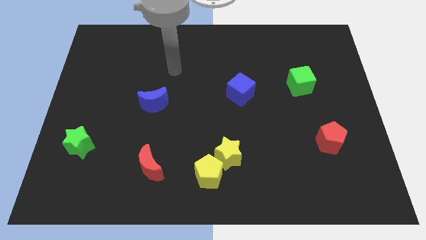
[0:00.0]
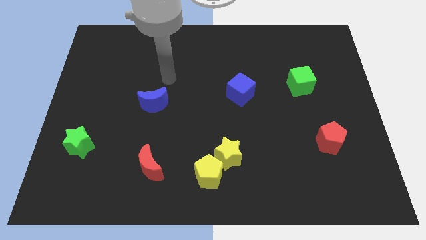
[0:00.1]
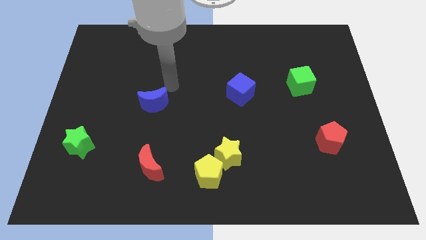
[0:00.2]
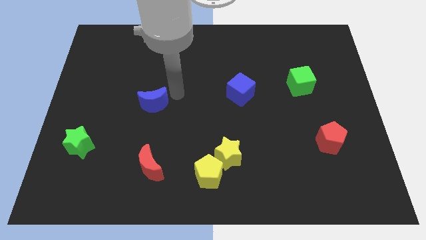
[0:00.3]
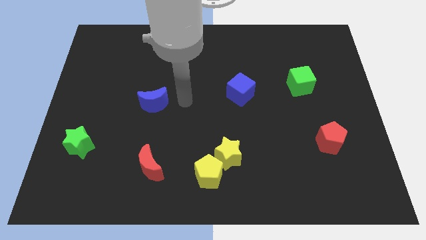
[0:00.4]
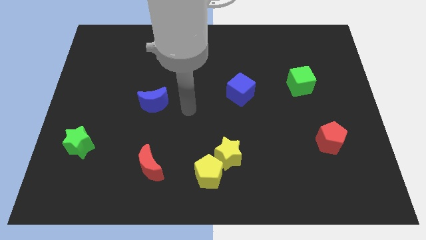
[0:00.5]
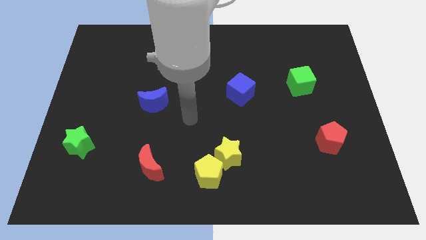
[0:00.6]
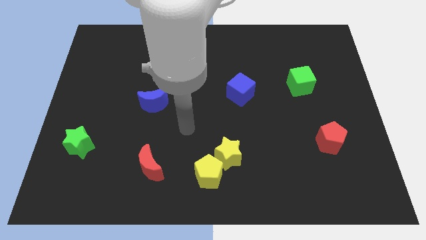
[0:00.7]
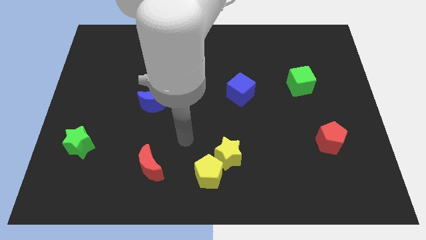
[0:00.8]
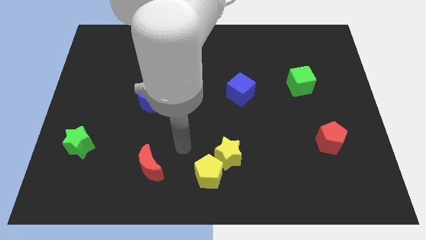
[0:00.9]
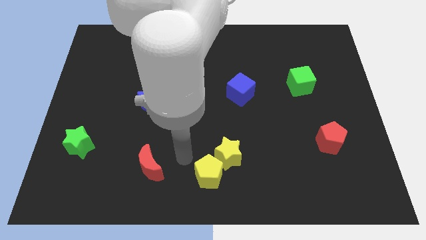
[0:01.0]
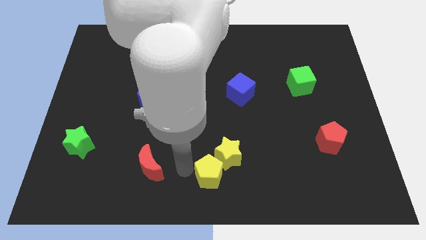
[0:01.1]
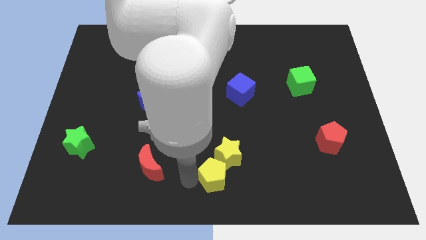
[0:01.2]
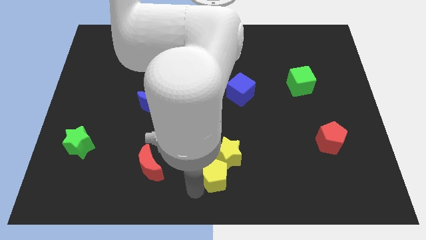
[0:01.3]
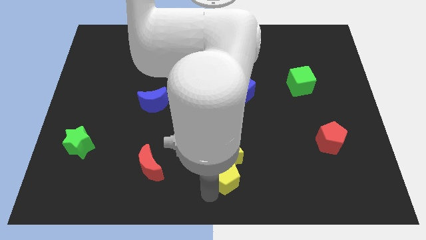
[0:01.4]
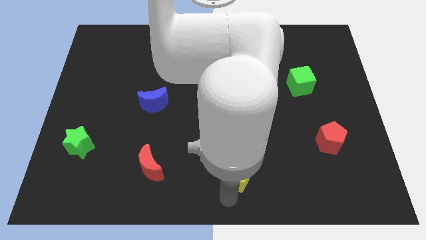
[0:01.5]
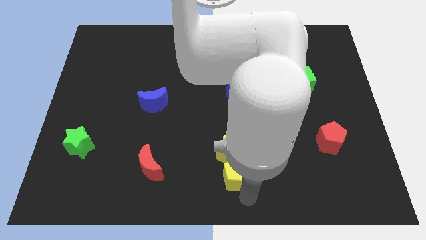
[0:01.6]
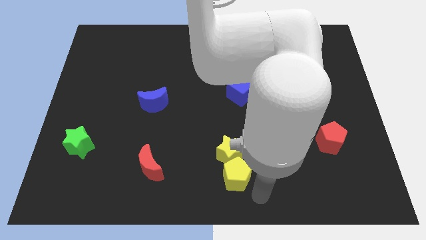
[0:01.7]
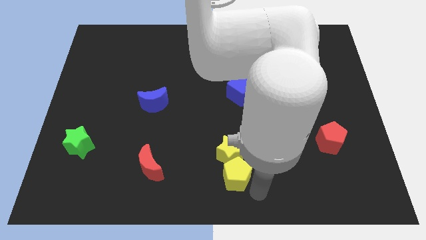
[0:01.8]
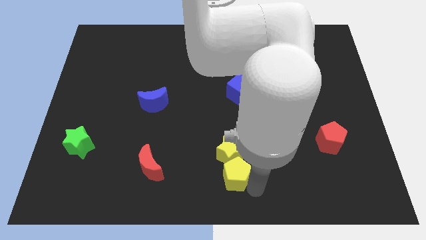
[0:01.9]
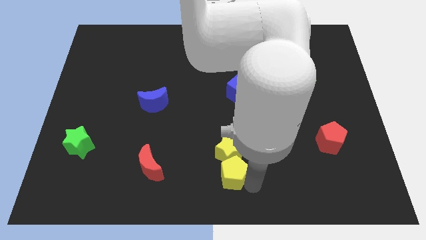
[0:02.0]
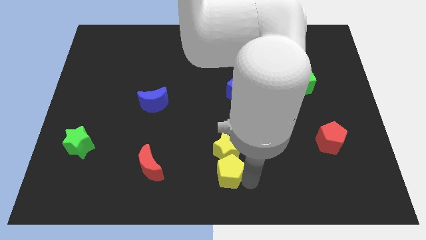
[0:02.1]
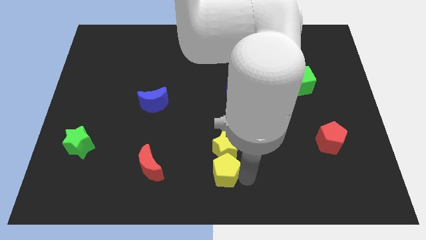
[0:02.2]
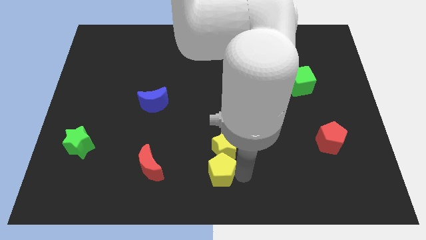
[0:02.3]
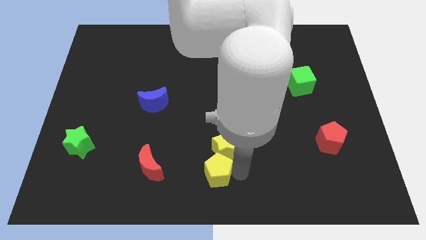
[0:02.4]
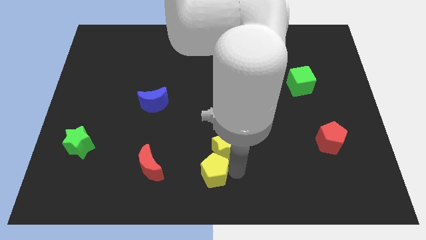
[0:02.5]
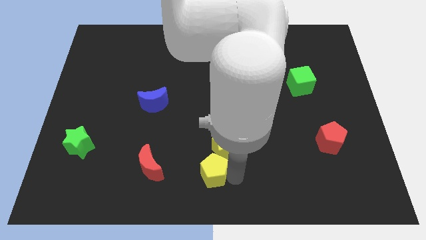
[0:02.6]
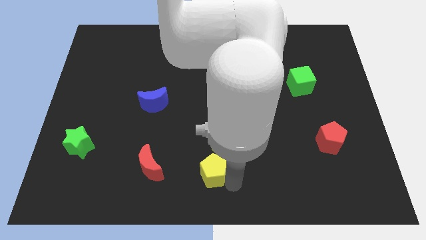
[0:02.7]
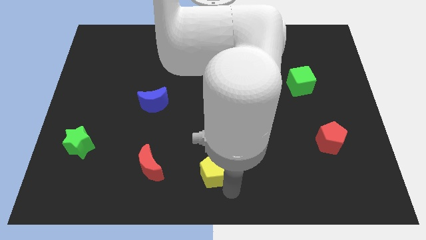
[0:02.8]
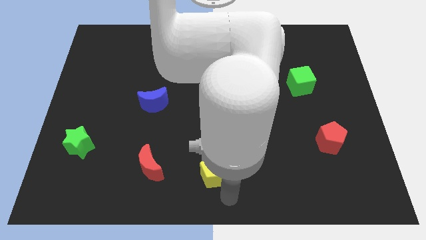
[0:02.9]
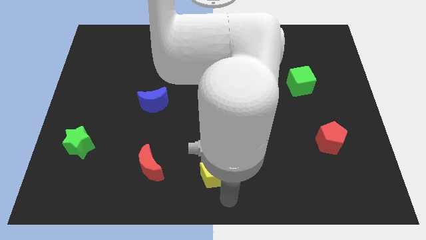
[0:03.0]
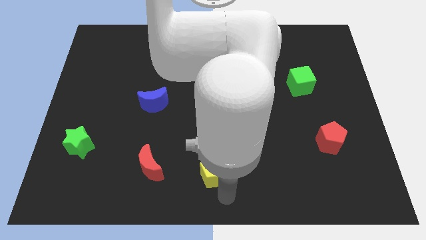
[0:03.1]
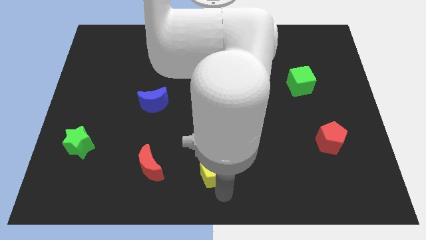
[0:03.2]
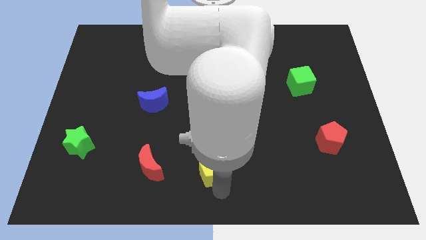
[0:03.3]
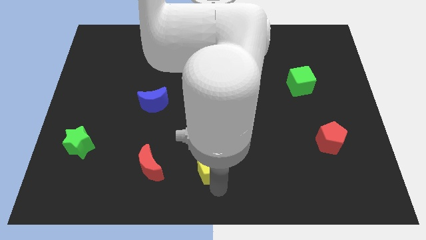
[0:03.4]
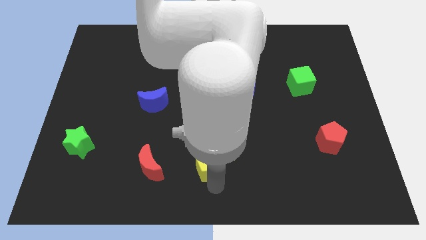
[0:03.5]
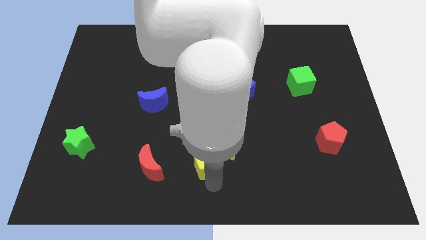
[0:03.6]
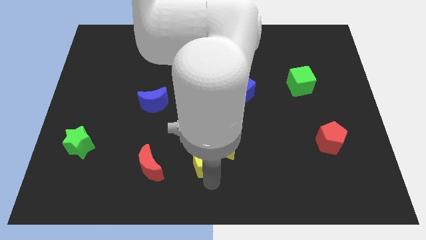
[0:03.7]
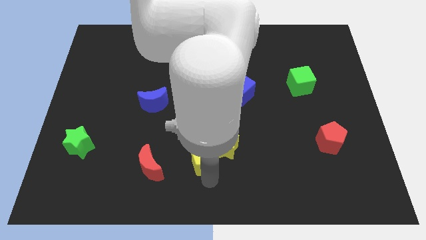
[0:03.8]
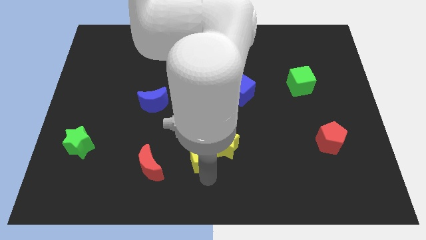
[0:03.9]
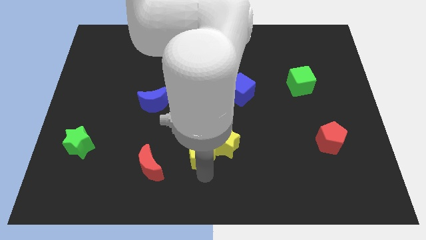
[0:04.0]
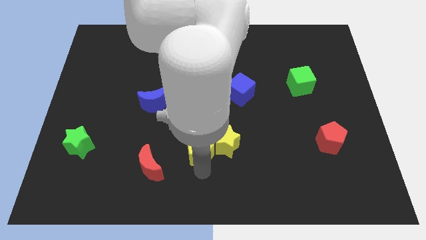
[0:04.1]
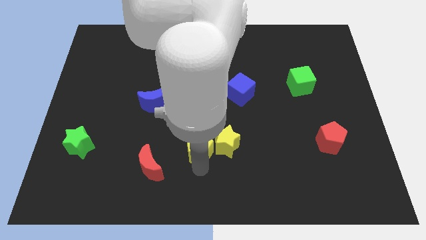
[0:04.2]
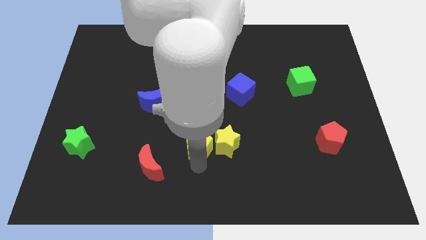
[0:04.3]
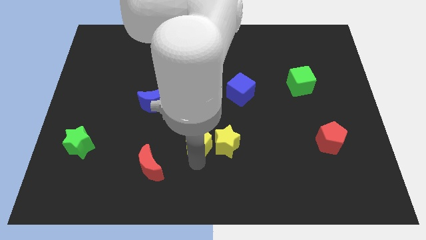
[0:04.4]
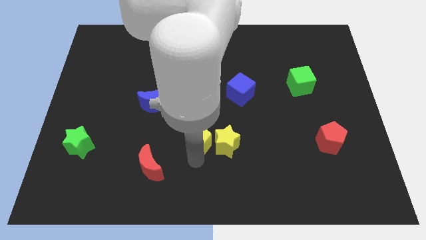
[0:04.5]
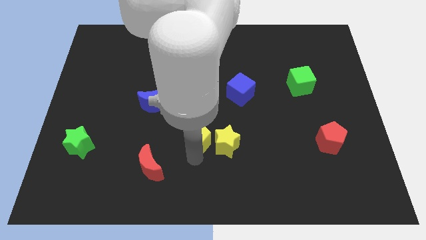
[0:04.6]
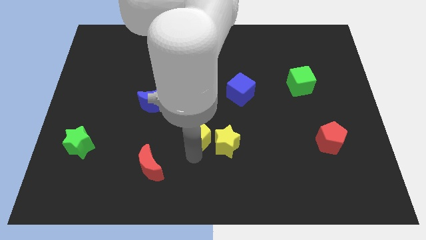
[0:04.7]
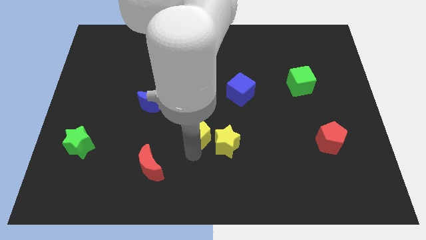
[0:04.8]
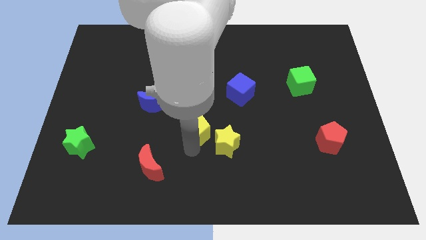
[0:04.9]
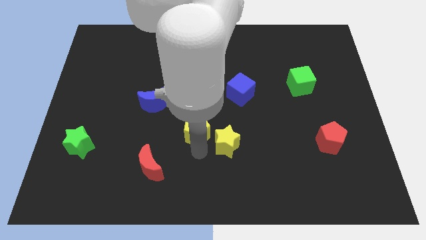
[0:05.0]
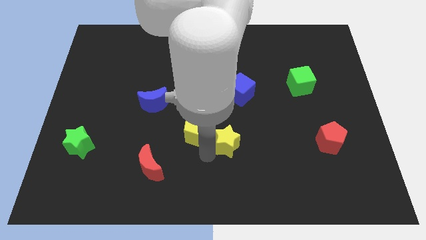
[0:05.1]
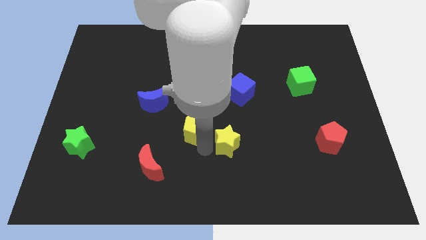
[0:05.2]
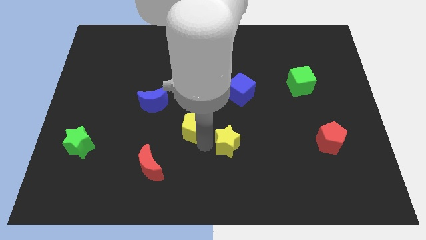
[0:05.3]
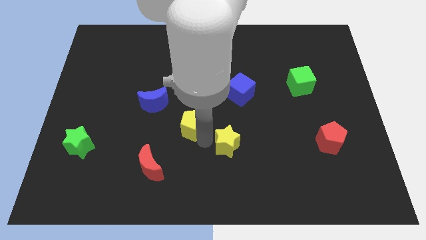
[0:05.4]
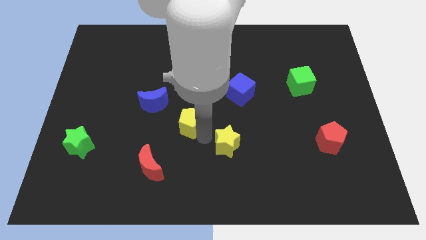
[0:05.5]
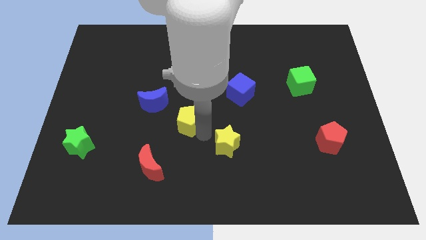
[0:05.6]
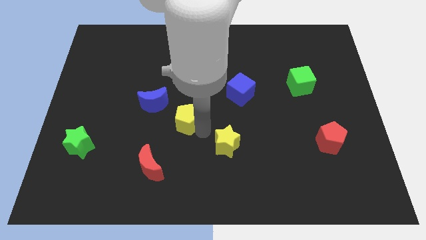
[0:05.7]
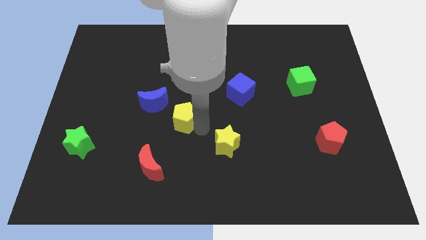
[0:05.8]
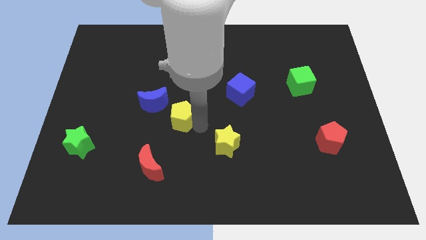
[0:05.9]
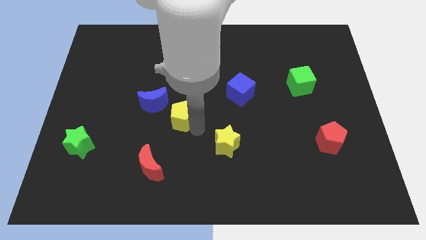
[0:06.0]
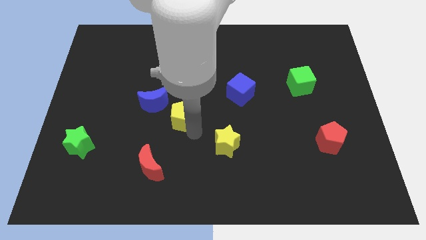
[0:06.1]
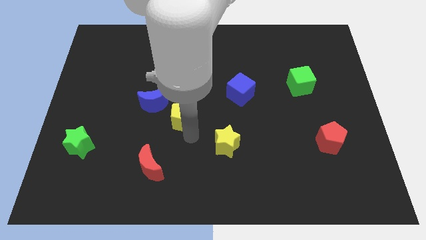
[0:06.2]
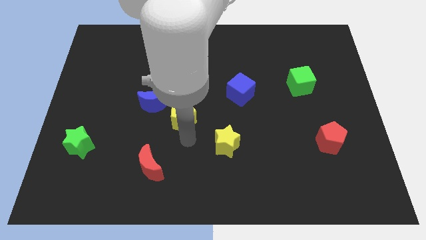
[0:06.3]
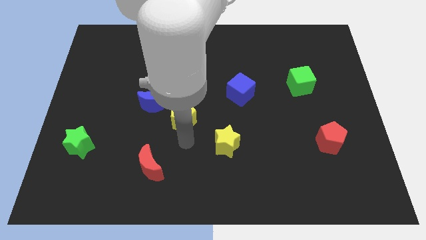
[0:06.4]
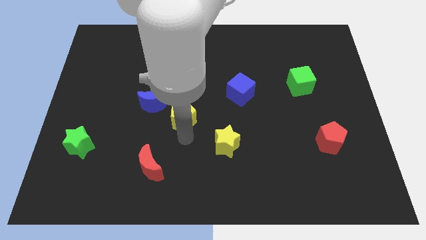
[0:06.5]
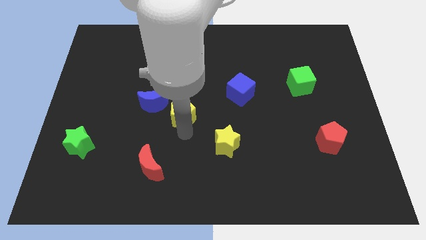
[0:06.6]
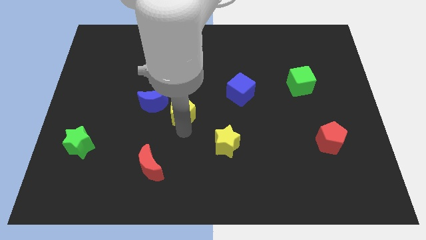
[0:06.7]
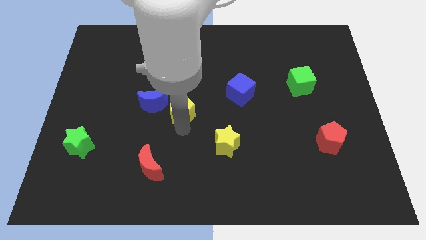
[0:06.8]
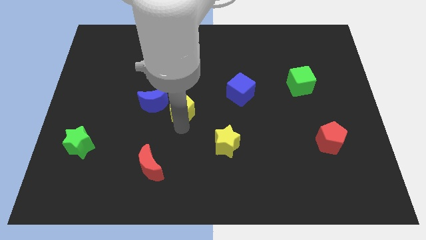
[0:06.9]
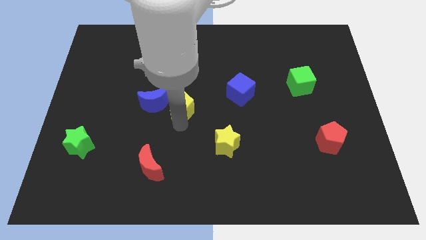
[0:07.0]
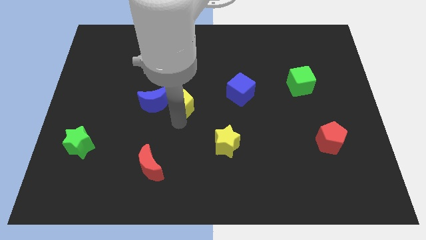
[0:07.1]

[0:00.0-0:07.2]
move the yellow pentagon diagonally up and to the right of the blue moon

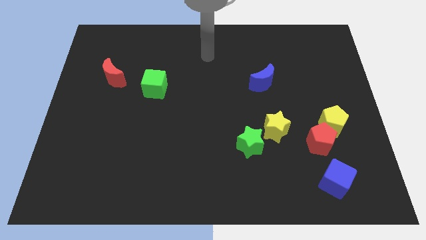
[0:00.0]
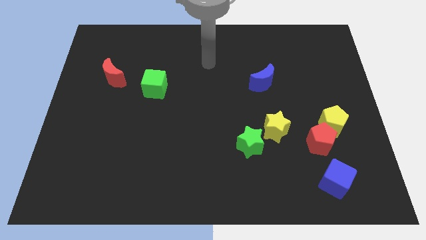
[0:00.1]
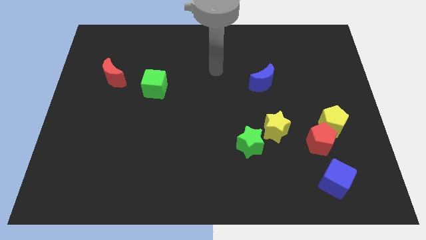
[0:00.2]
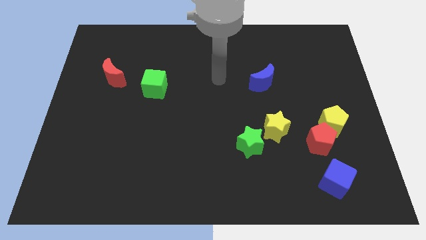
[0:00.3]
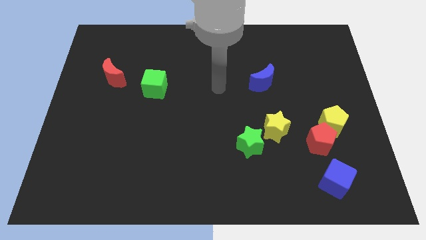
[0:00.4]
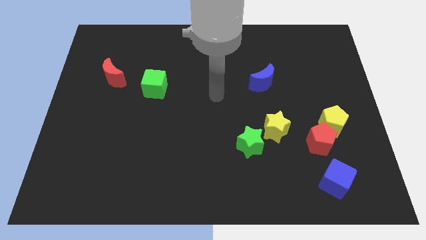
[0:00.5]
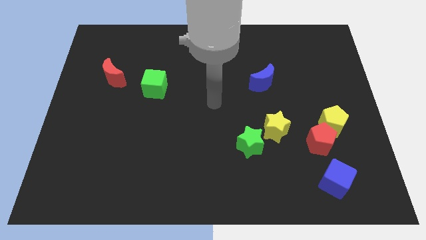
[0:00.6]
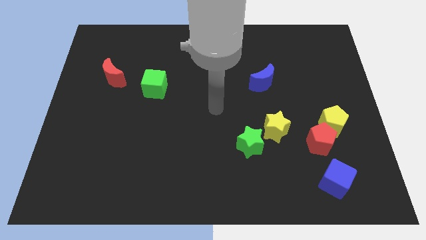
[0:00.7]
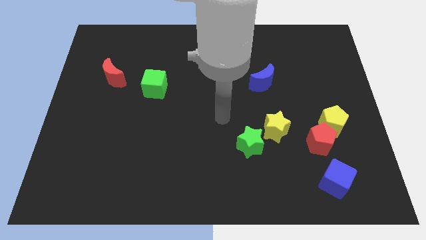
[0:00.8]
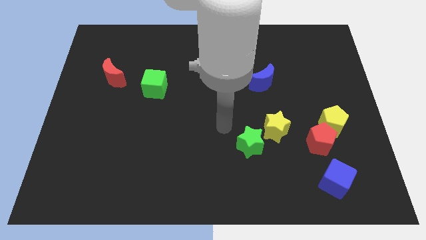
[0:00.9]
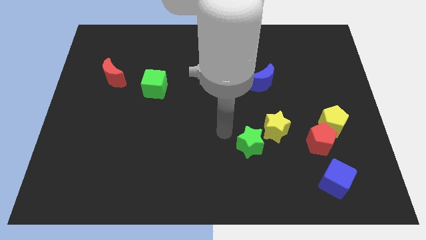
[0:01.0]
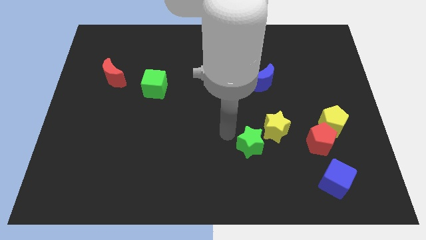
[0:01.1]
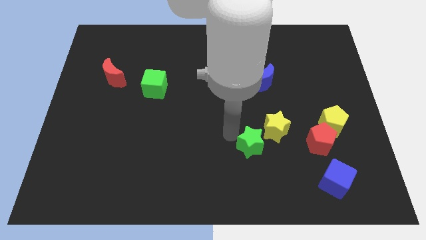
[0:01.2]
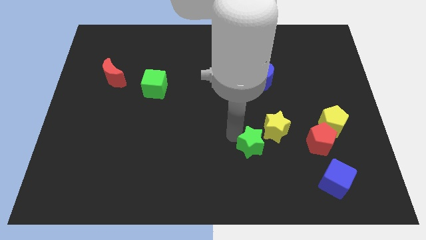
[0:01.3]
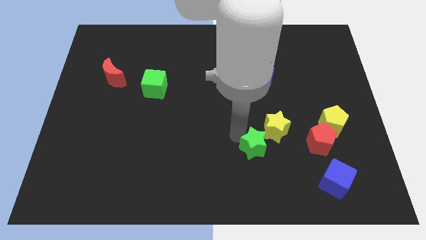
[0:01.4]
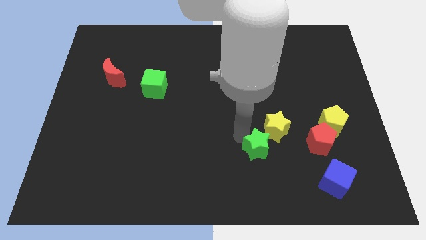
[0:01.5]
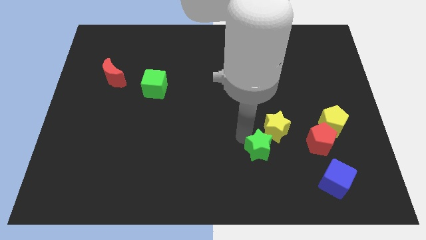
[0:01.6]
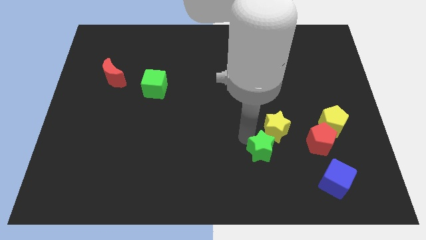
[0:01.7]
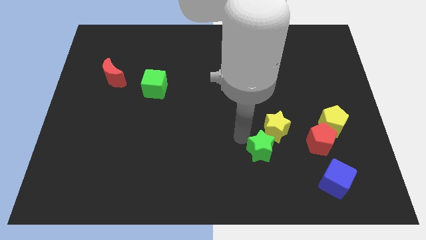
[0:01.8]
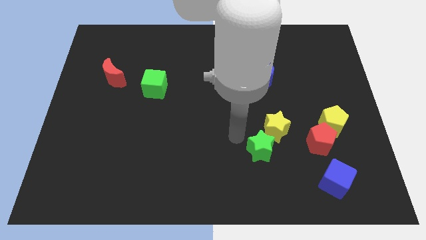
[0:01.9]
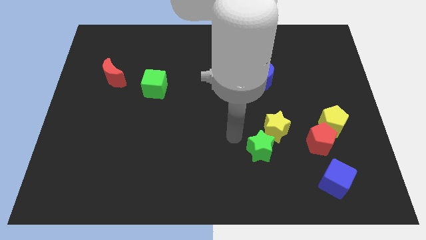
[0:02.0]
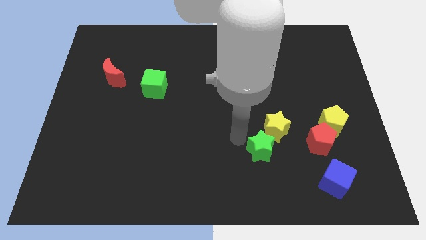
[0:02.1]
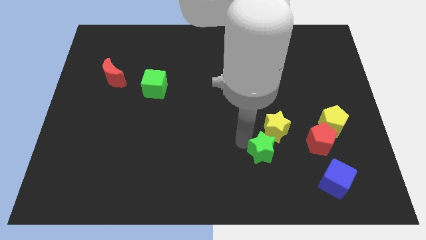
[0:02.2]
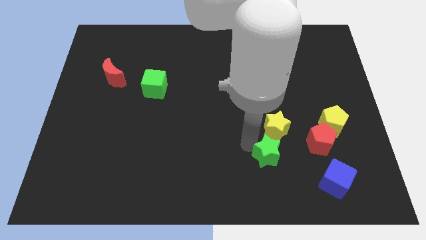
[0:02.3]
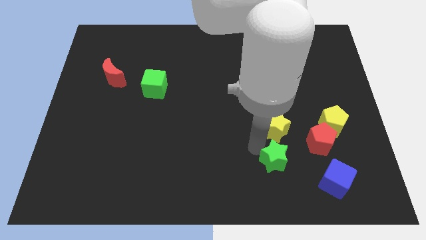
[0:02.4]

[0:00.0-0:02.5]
put the green star just left of the blue cube
